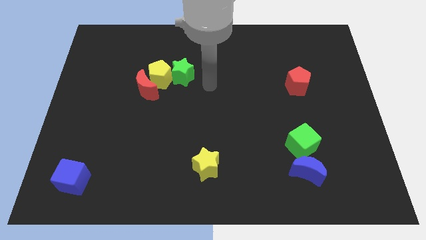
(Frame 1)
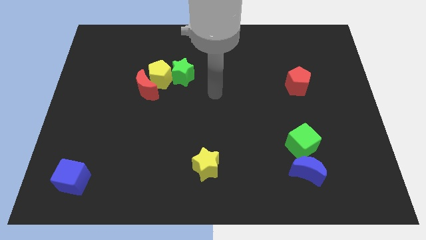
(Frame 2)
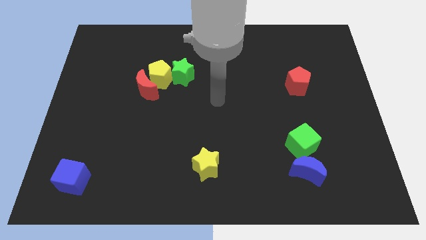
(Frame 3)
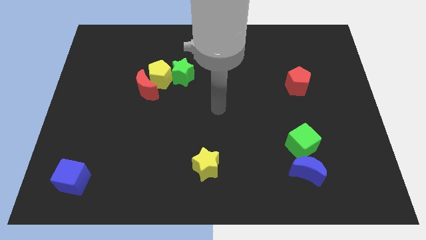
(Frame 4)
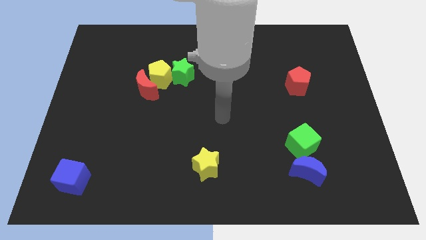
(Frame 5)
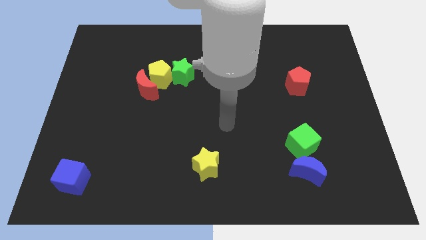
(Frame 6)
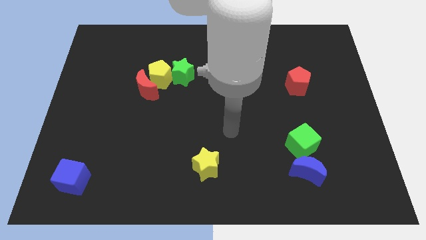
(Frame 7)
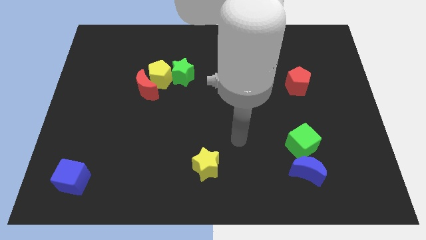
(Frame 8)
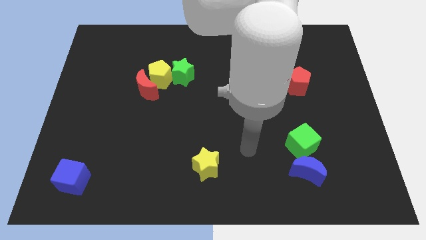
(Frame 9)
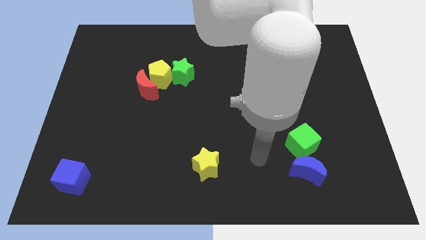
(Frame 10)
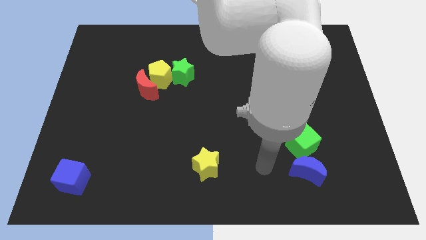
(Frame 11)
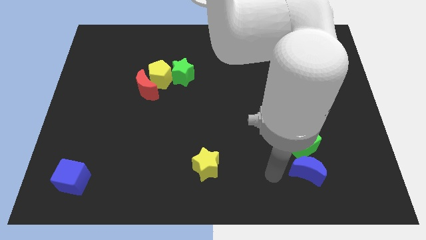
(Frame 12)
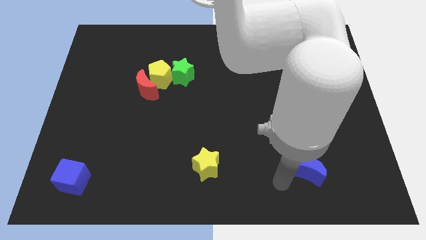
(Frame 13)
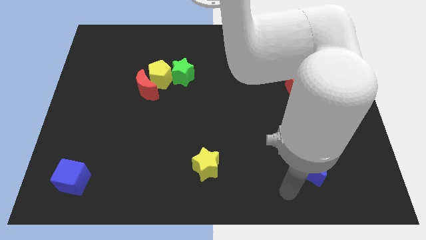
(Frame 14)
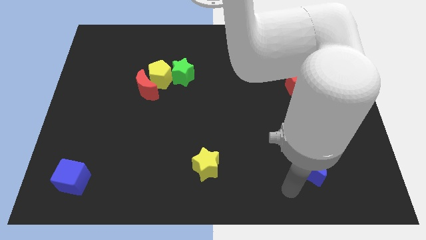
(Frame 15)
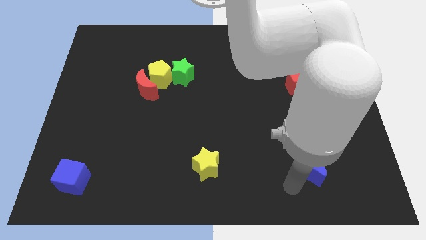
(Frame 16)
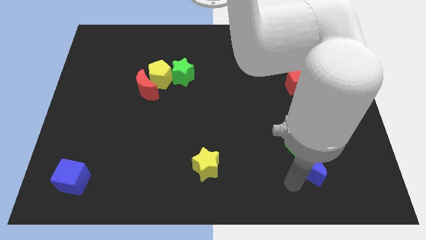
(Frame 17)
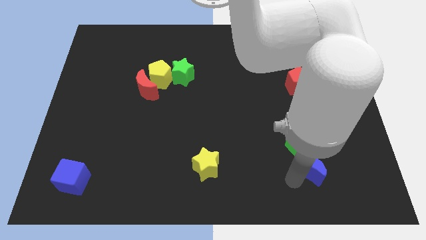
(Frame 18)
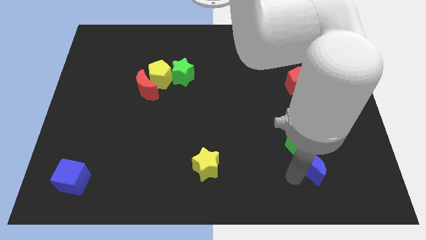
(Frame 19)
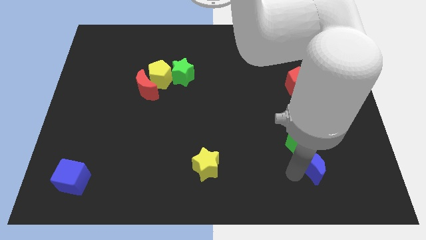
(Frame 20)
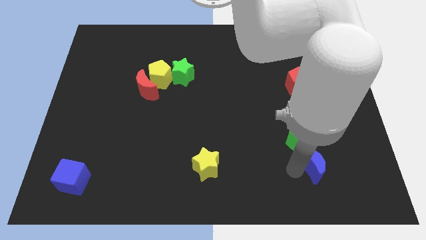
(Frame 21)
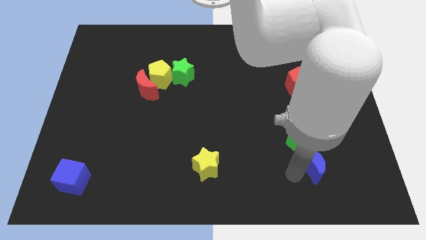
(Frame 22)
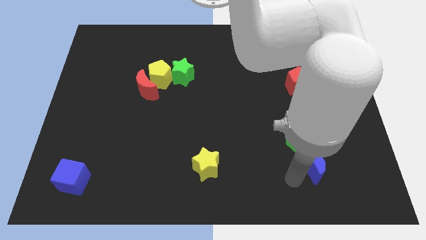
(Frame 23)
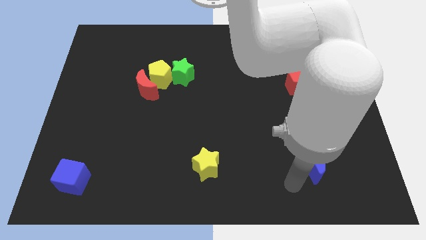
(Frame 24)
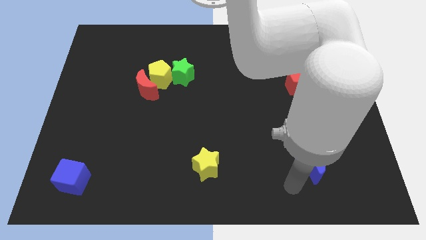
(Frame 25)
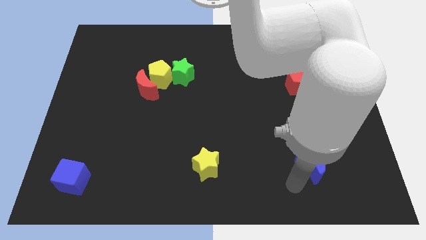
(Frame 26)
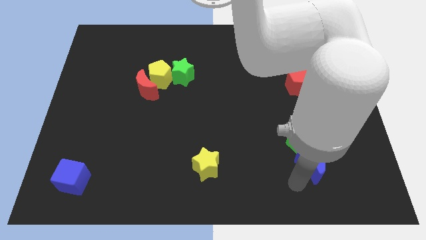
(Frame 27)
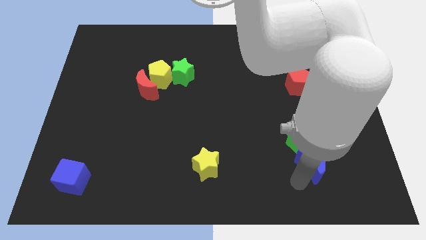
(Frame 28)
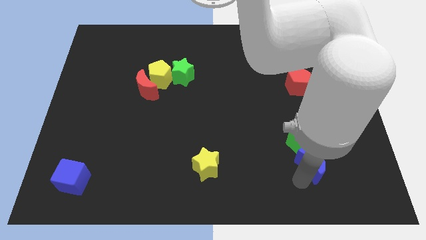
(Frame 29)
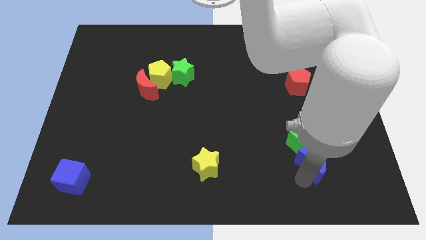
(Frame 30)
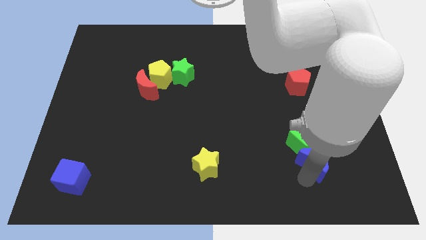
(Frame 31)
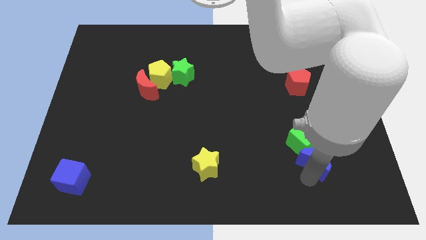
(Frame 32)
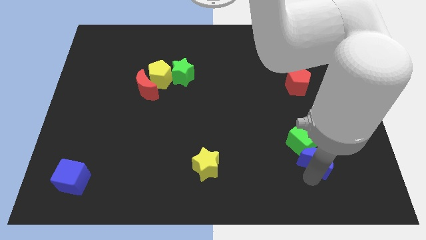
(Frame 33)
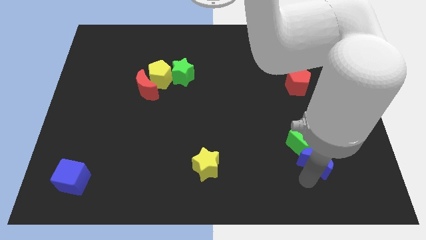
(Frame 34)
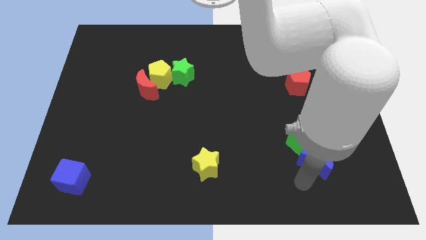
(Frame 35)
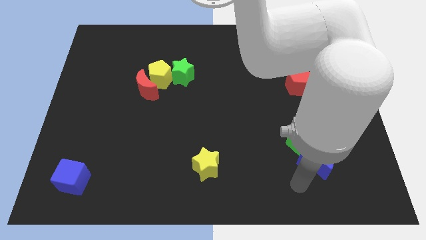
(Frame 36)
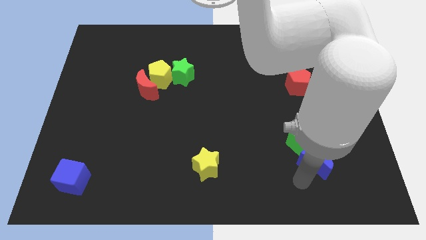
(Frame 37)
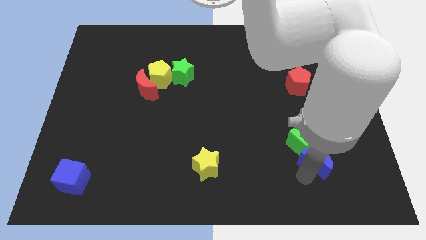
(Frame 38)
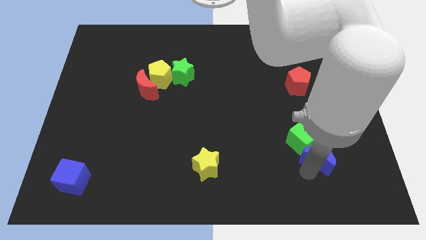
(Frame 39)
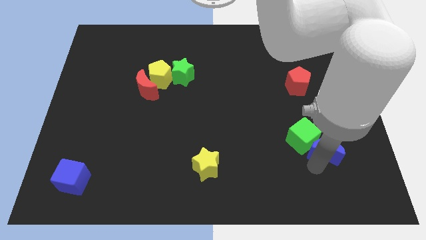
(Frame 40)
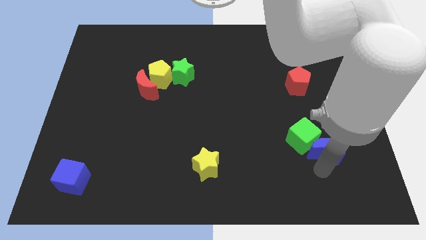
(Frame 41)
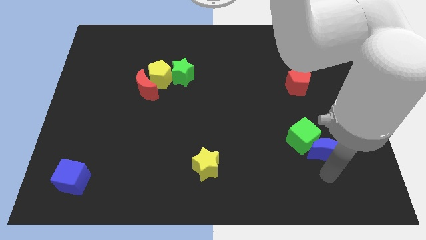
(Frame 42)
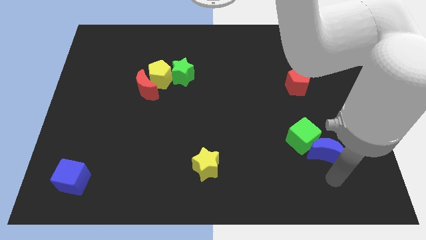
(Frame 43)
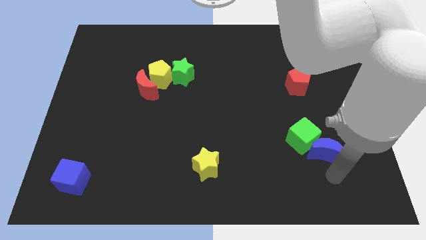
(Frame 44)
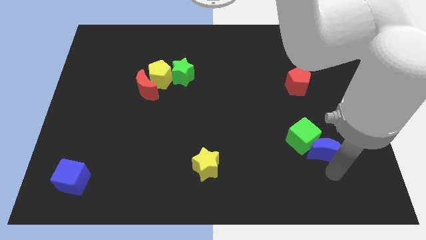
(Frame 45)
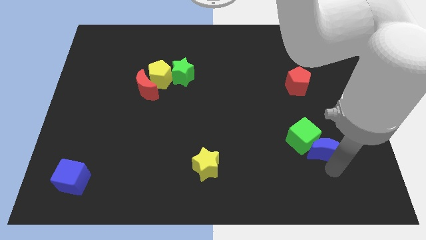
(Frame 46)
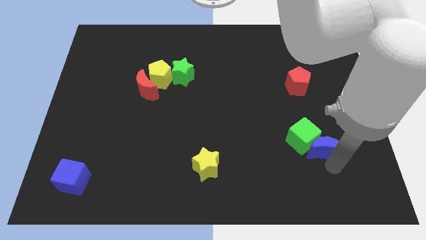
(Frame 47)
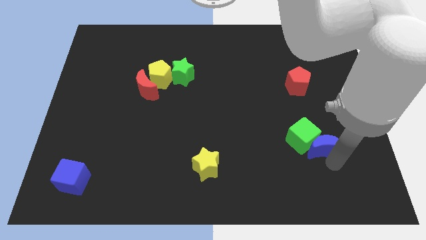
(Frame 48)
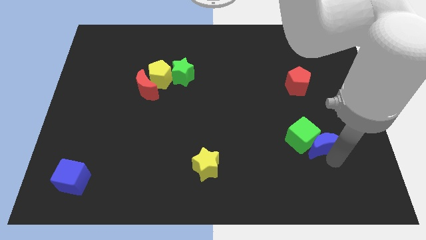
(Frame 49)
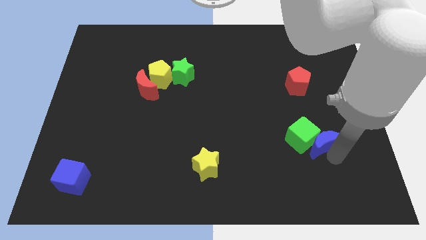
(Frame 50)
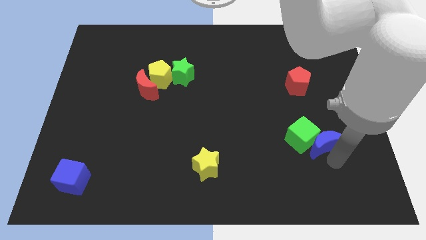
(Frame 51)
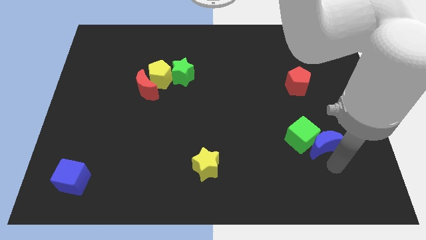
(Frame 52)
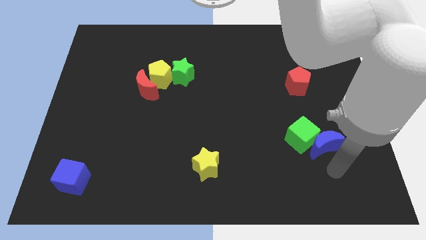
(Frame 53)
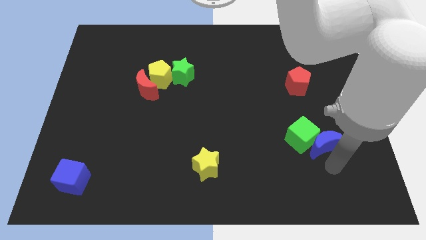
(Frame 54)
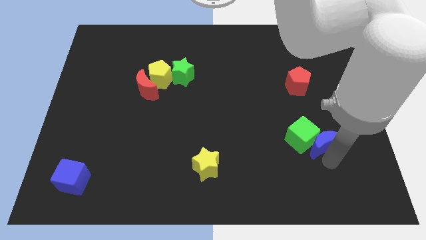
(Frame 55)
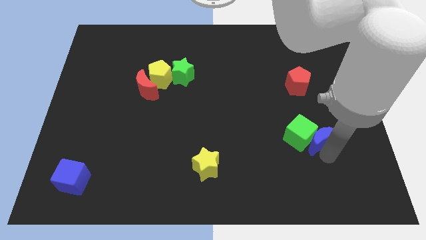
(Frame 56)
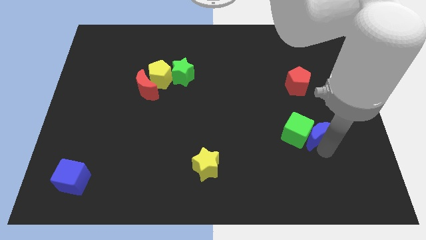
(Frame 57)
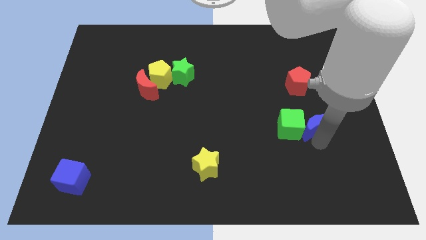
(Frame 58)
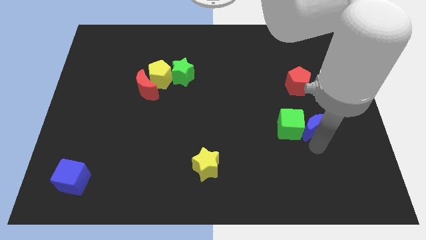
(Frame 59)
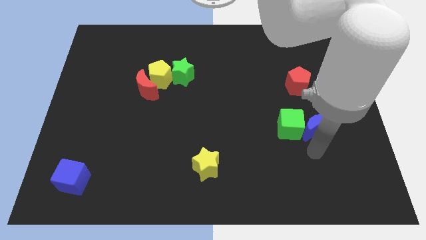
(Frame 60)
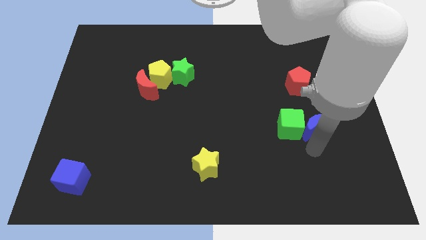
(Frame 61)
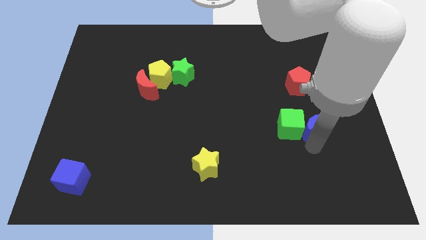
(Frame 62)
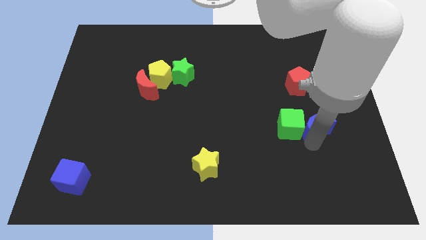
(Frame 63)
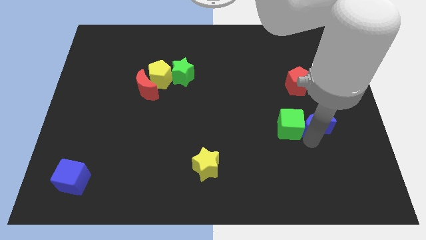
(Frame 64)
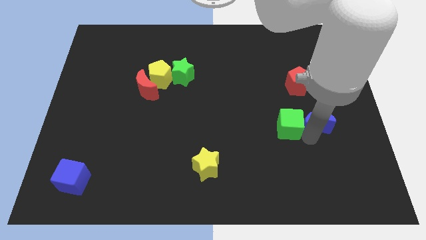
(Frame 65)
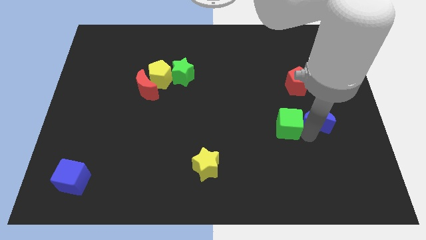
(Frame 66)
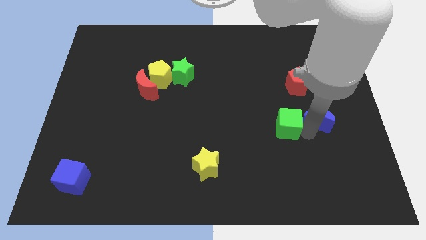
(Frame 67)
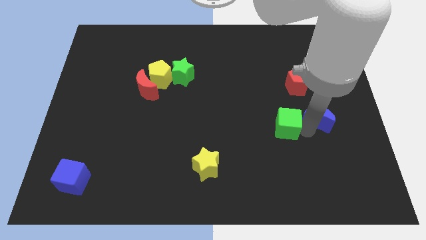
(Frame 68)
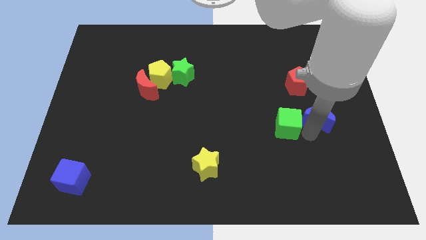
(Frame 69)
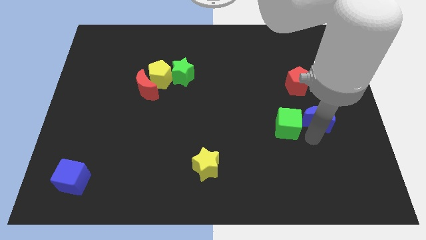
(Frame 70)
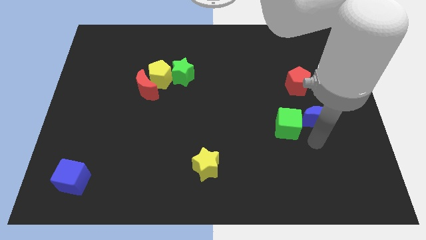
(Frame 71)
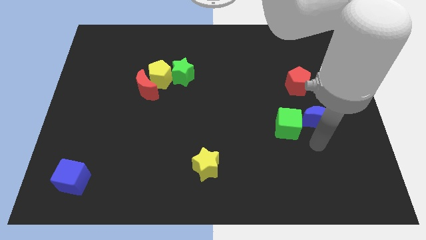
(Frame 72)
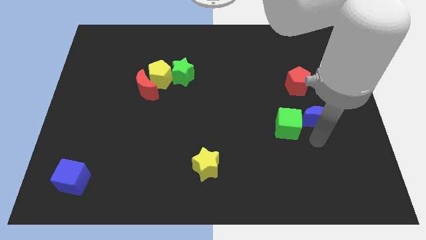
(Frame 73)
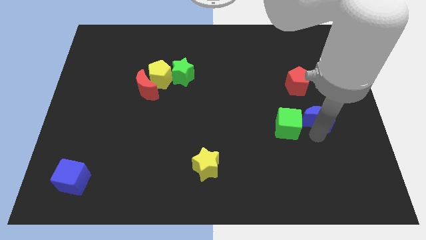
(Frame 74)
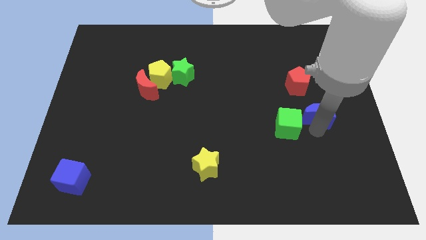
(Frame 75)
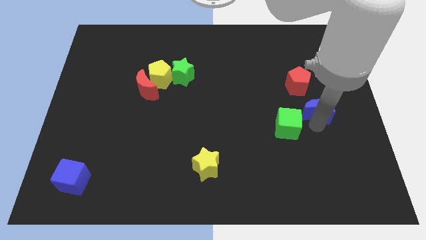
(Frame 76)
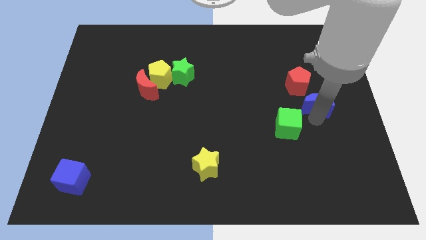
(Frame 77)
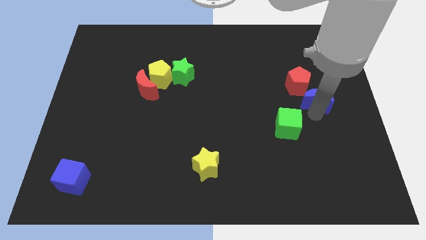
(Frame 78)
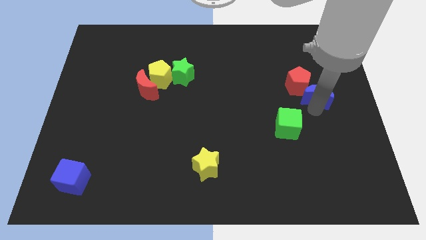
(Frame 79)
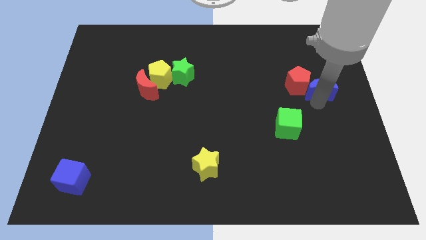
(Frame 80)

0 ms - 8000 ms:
move the blue moon up
